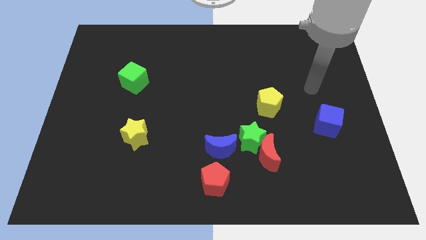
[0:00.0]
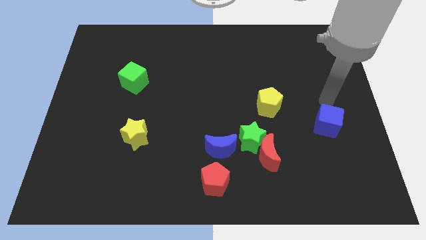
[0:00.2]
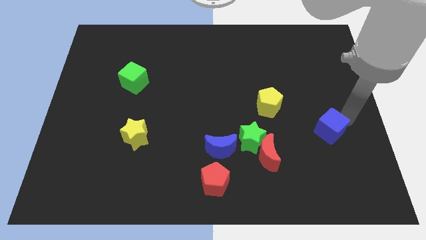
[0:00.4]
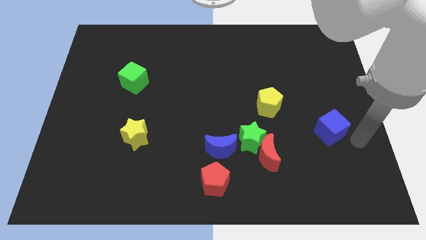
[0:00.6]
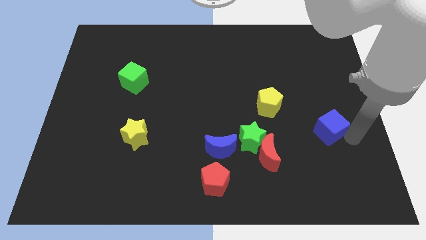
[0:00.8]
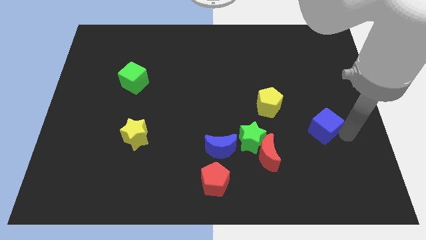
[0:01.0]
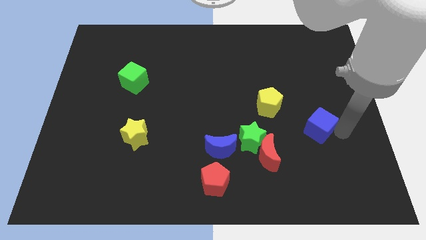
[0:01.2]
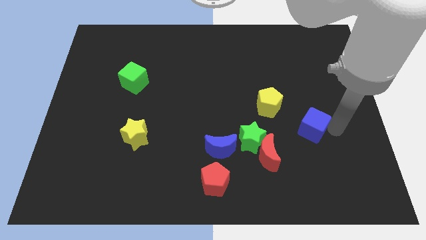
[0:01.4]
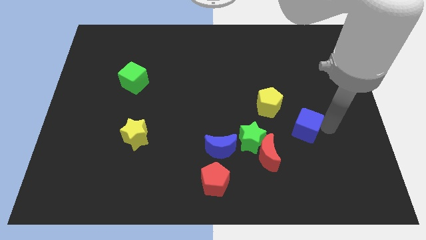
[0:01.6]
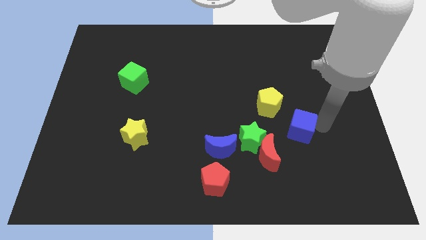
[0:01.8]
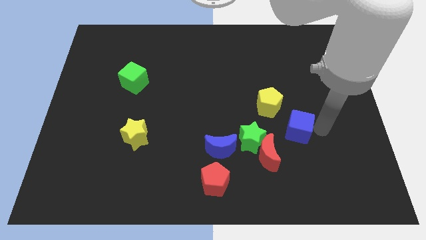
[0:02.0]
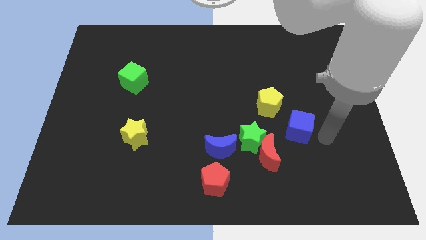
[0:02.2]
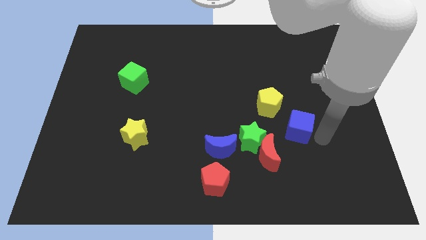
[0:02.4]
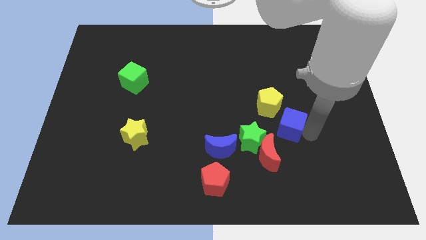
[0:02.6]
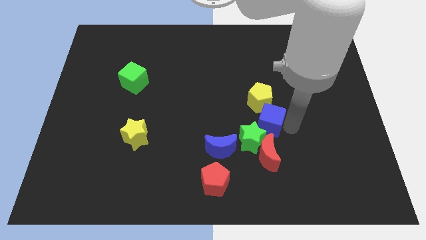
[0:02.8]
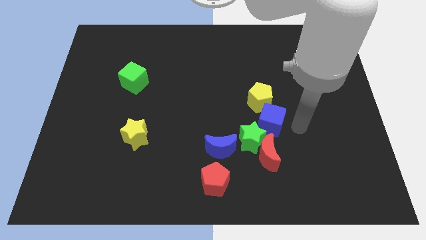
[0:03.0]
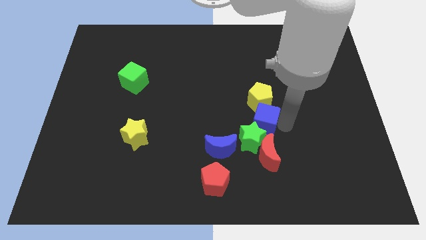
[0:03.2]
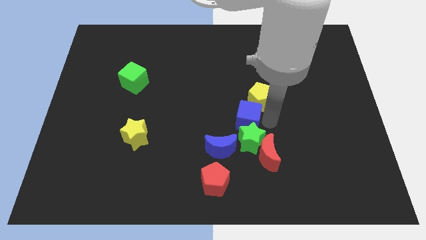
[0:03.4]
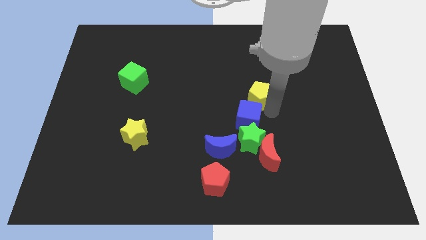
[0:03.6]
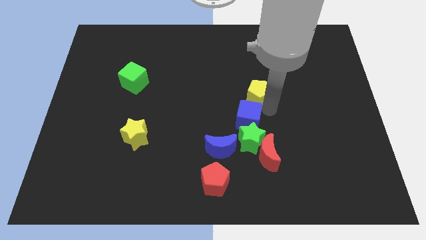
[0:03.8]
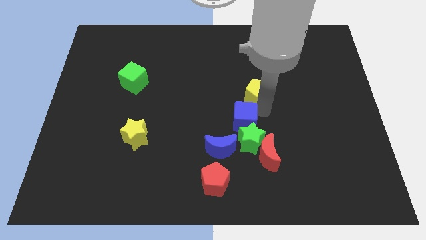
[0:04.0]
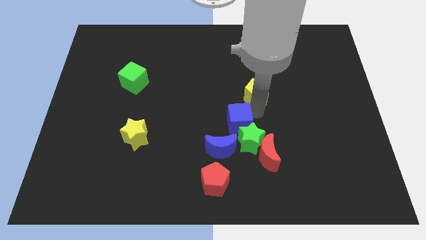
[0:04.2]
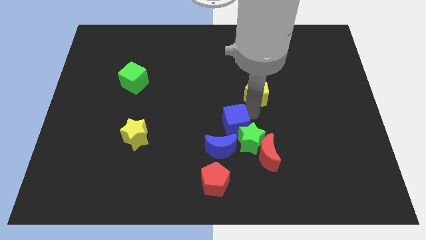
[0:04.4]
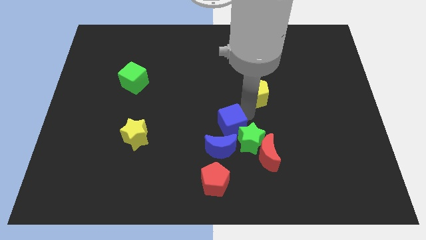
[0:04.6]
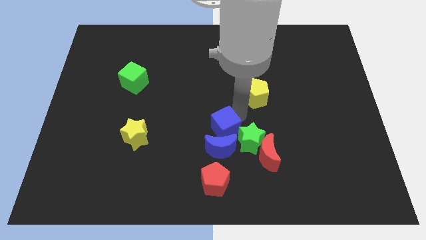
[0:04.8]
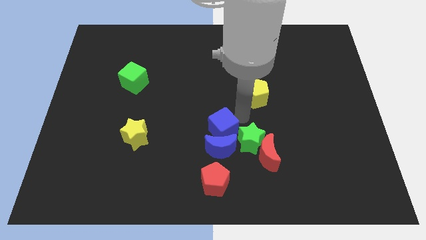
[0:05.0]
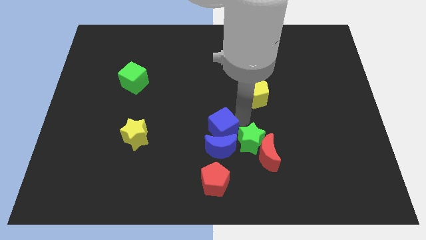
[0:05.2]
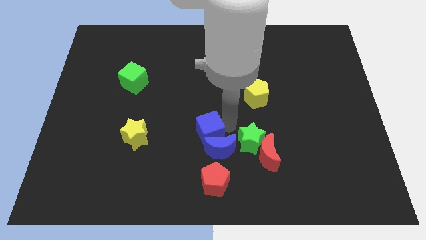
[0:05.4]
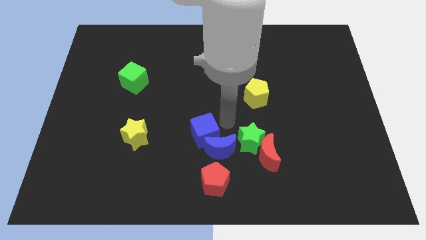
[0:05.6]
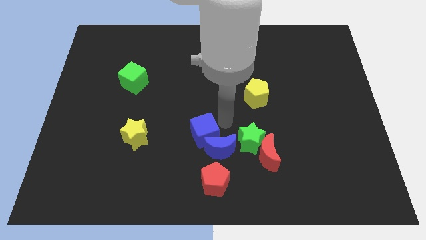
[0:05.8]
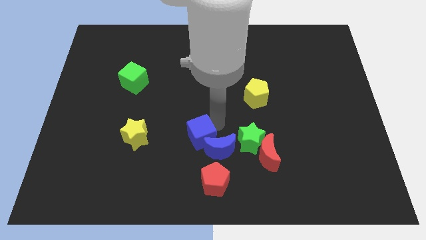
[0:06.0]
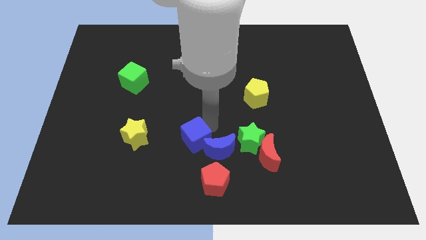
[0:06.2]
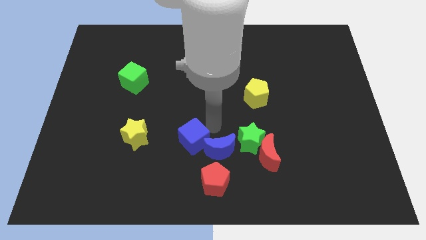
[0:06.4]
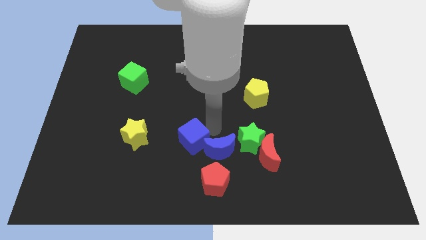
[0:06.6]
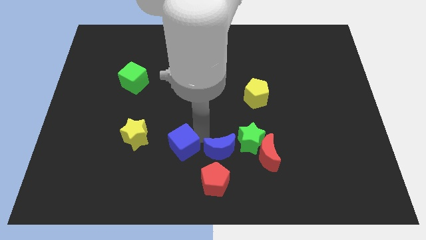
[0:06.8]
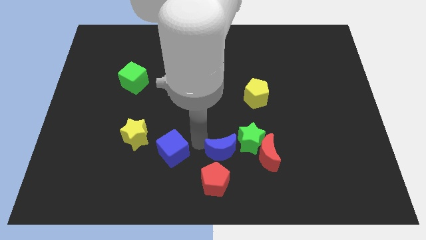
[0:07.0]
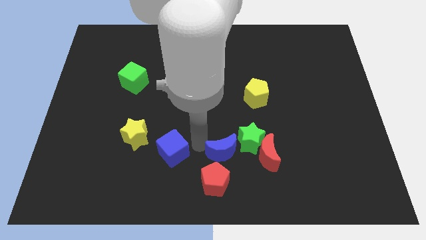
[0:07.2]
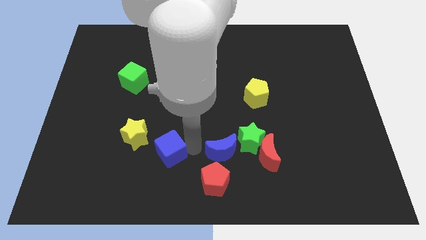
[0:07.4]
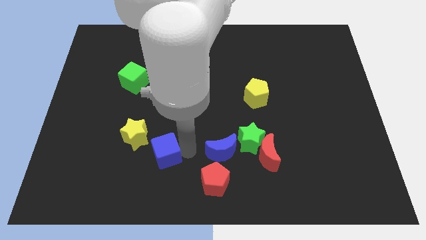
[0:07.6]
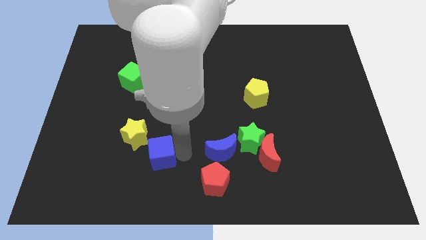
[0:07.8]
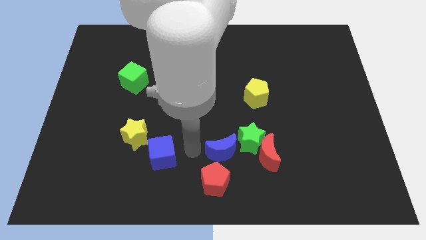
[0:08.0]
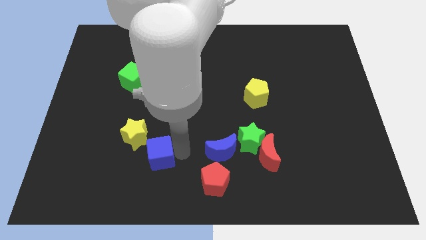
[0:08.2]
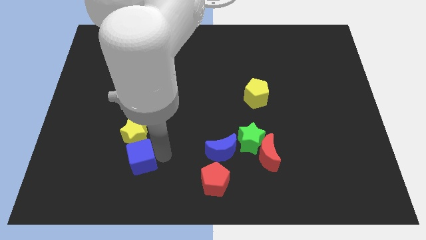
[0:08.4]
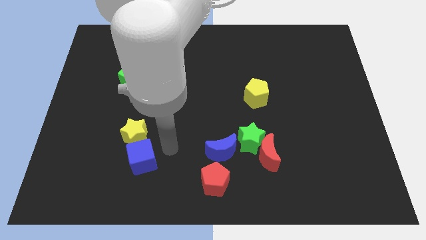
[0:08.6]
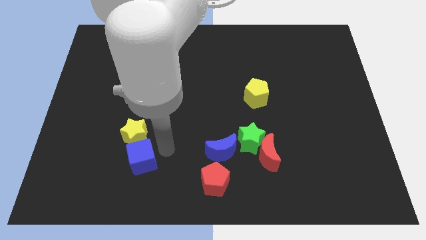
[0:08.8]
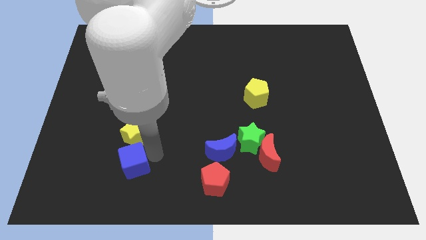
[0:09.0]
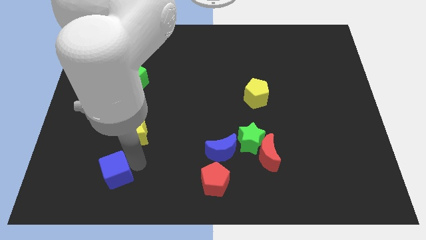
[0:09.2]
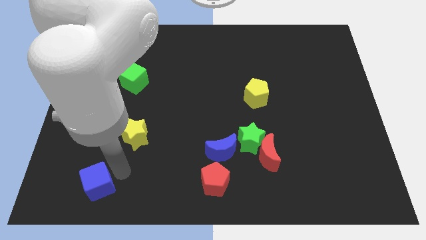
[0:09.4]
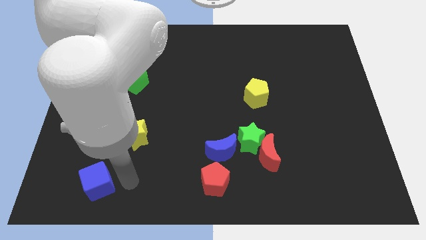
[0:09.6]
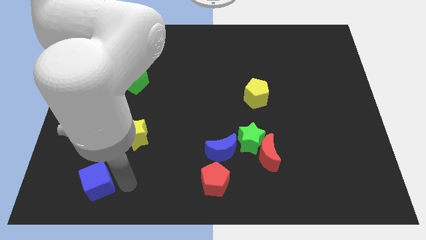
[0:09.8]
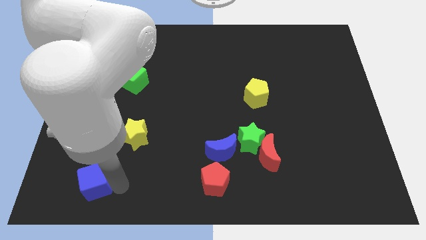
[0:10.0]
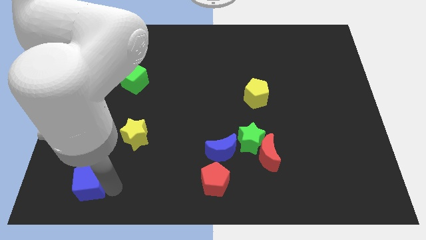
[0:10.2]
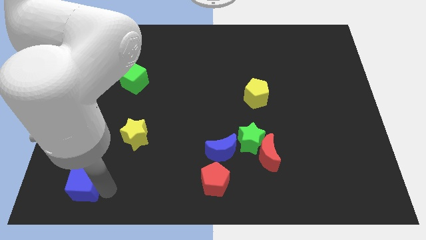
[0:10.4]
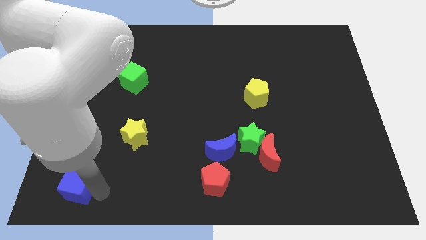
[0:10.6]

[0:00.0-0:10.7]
slide the blue cube to the bottom left of the board

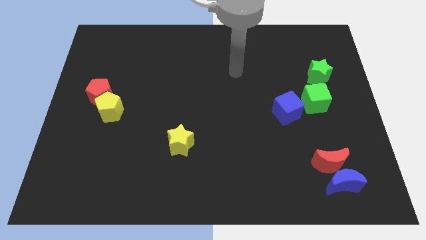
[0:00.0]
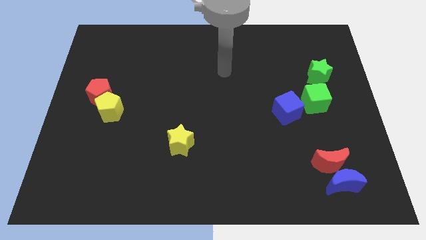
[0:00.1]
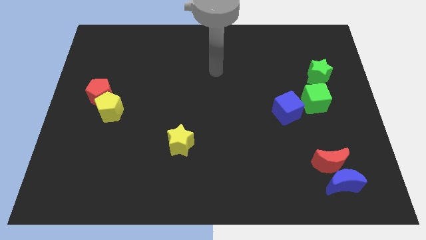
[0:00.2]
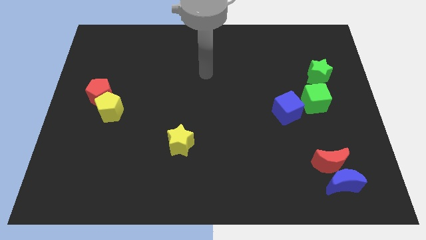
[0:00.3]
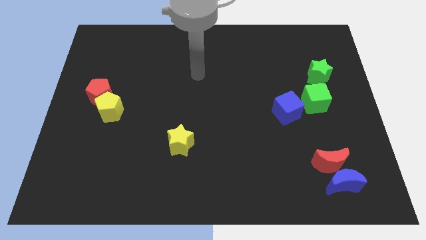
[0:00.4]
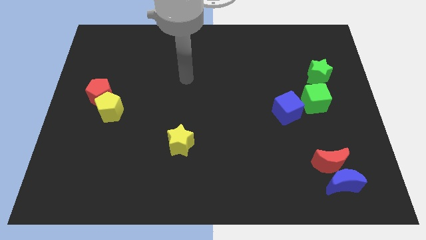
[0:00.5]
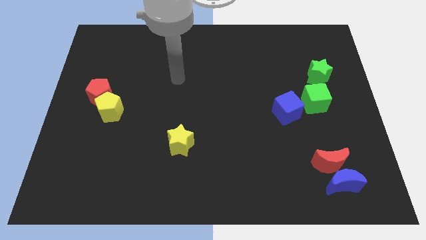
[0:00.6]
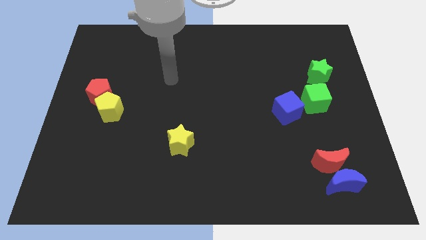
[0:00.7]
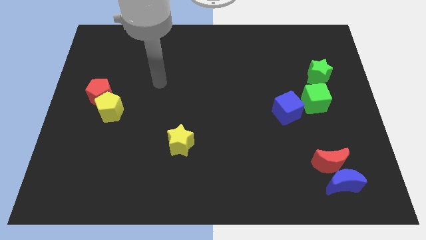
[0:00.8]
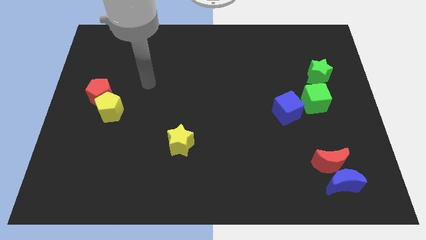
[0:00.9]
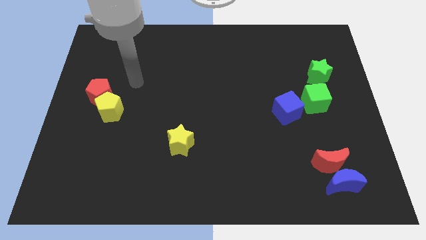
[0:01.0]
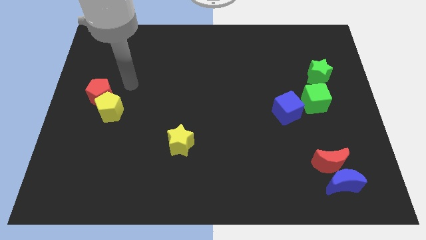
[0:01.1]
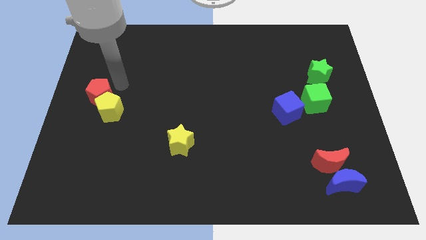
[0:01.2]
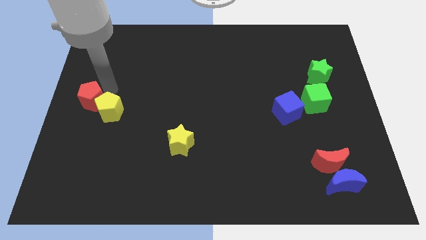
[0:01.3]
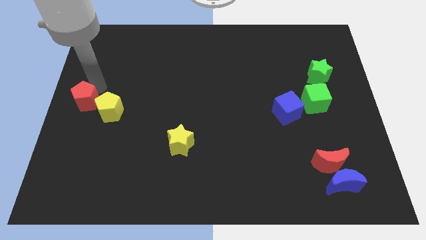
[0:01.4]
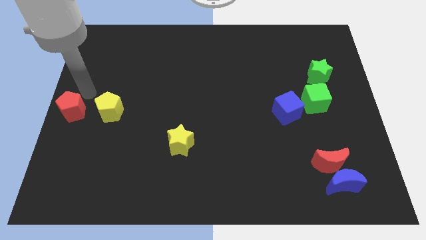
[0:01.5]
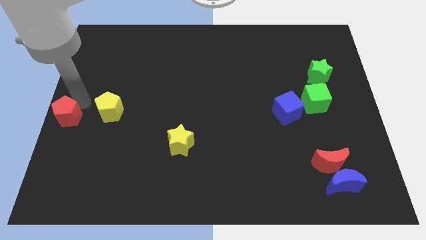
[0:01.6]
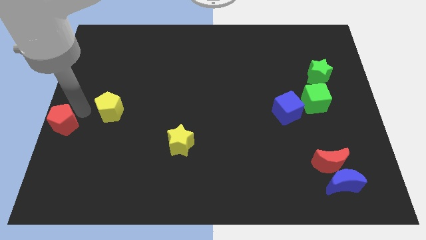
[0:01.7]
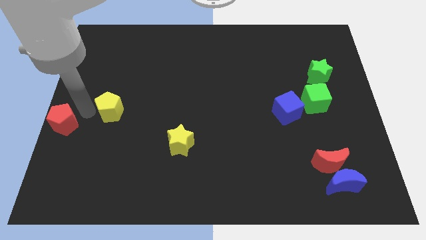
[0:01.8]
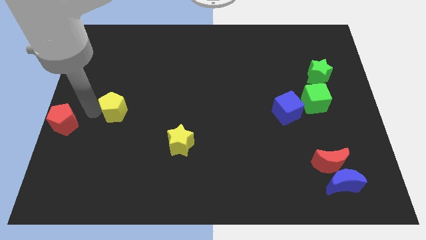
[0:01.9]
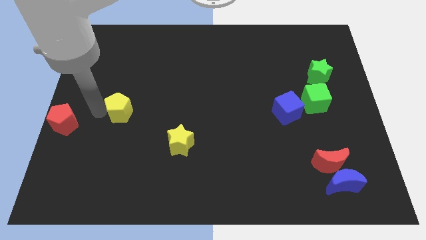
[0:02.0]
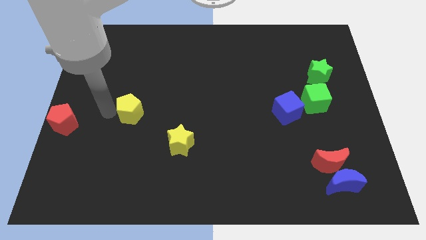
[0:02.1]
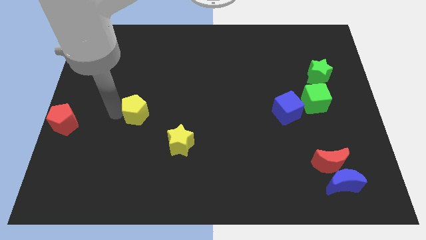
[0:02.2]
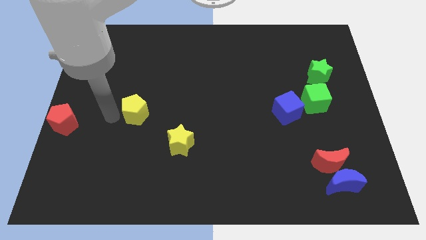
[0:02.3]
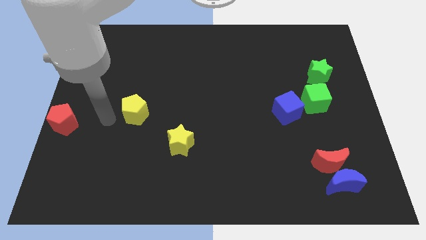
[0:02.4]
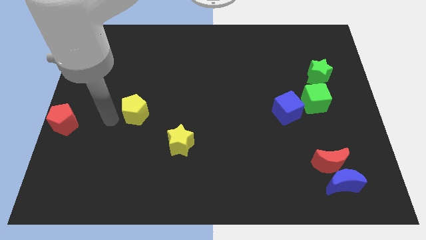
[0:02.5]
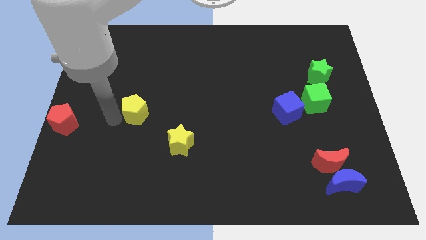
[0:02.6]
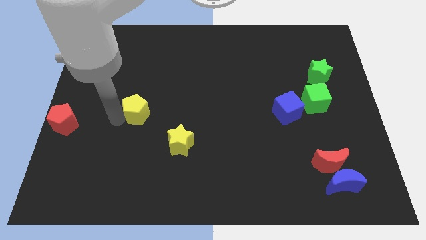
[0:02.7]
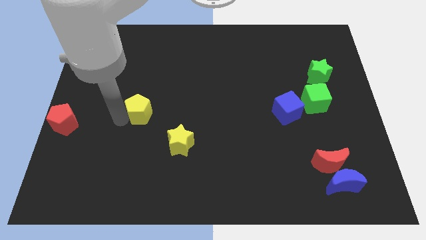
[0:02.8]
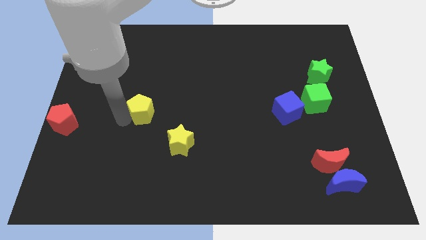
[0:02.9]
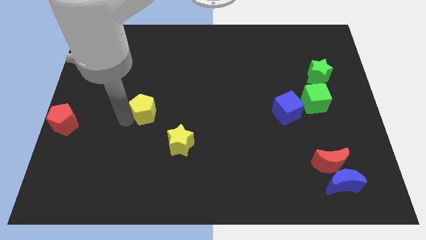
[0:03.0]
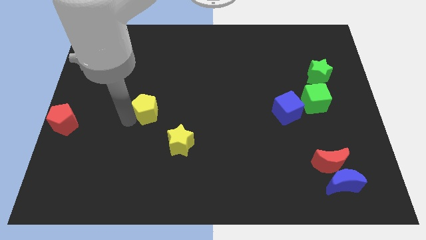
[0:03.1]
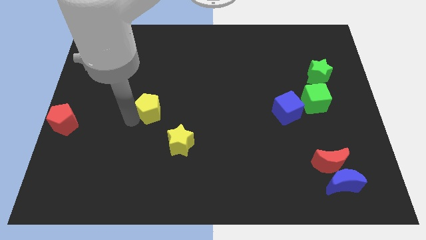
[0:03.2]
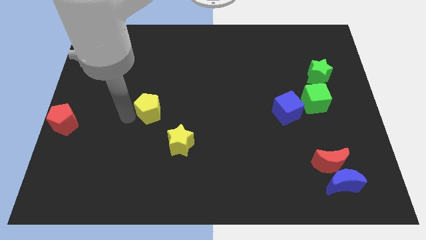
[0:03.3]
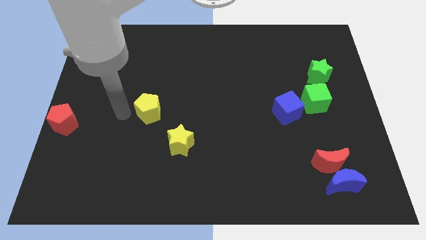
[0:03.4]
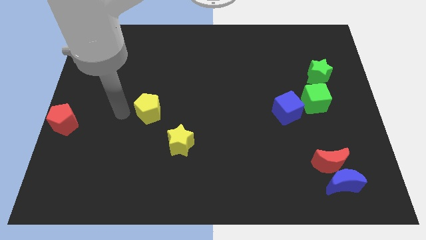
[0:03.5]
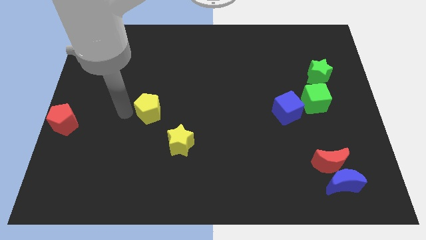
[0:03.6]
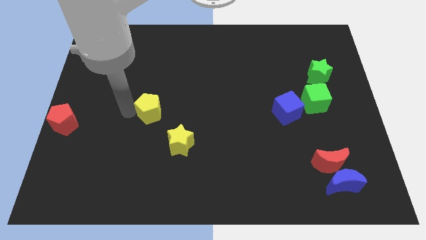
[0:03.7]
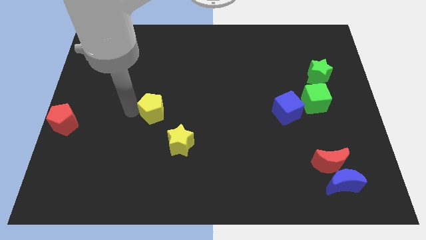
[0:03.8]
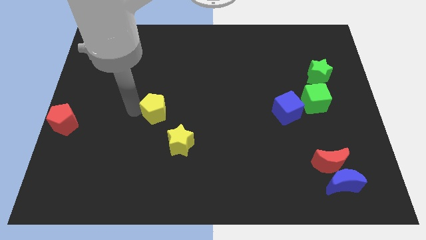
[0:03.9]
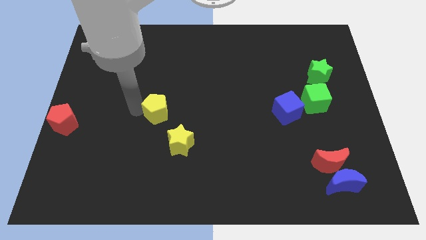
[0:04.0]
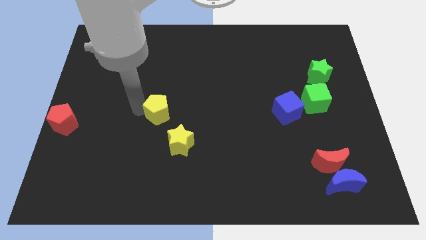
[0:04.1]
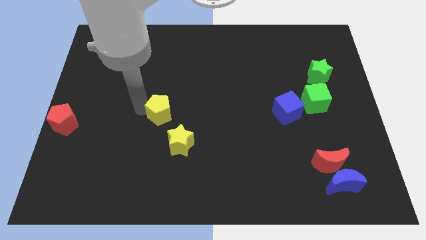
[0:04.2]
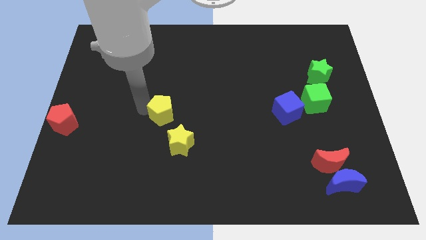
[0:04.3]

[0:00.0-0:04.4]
move the yellow pentagon to the center
